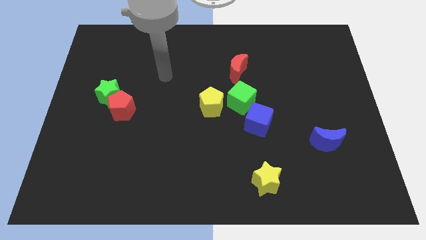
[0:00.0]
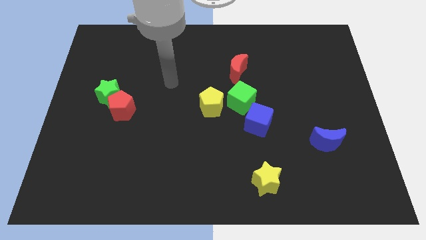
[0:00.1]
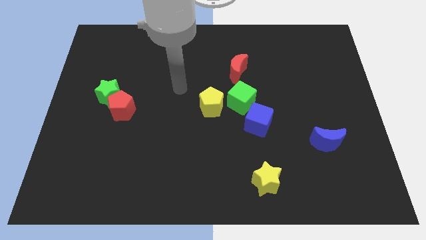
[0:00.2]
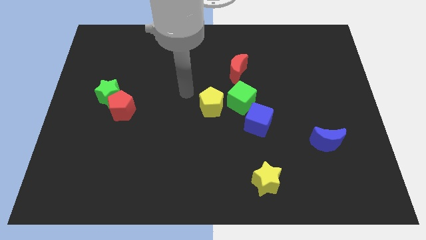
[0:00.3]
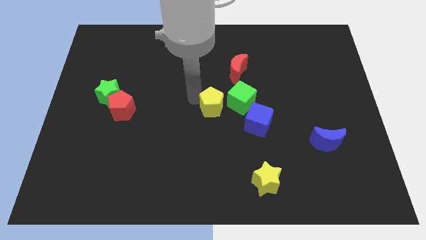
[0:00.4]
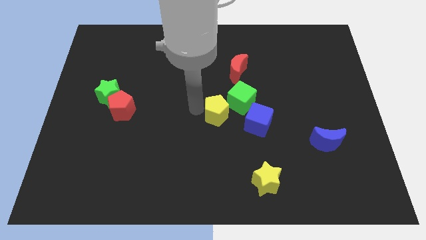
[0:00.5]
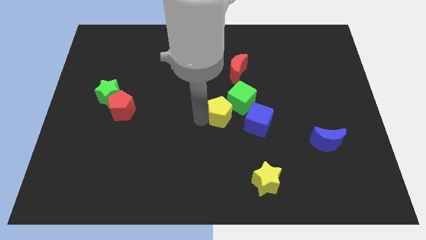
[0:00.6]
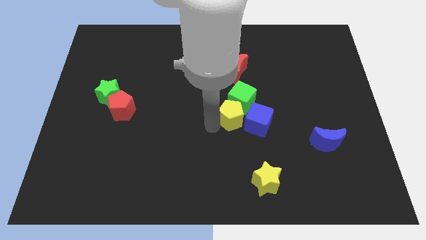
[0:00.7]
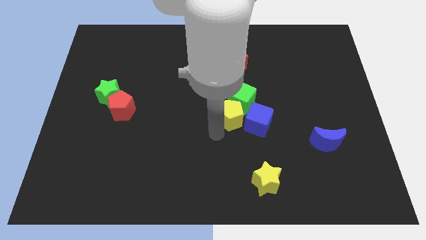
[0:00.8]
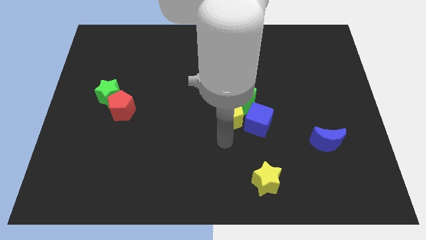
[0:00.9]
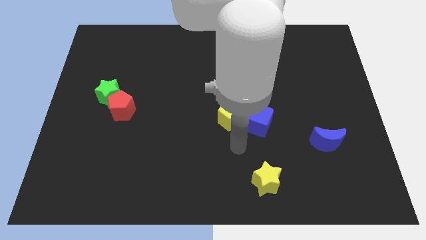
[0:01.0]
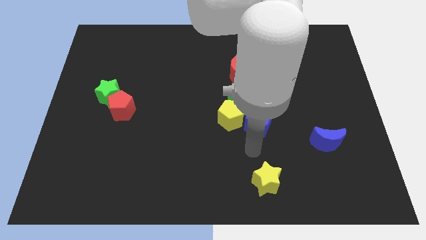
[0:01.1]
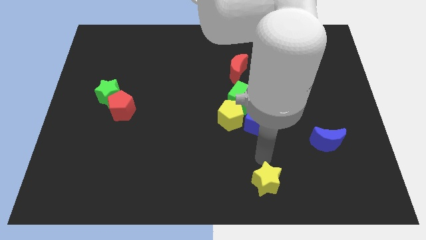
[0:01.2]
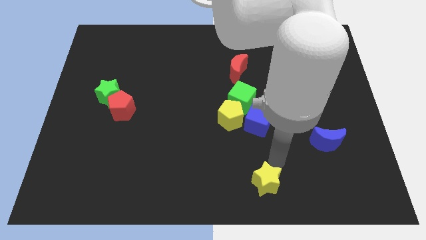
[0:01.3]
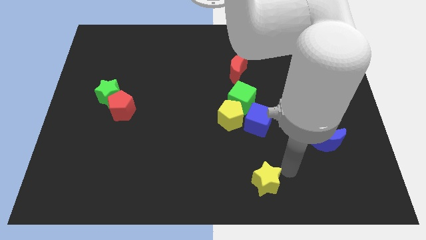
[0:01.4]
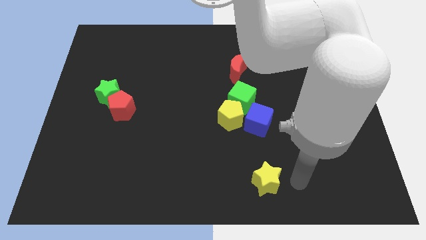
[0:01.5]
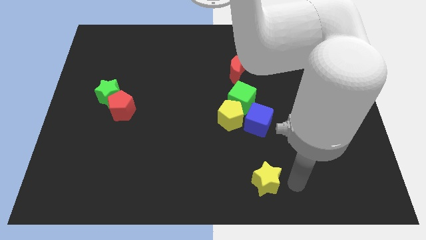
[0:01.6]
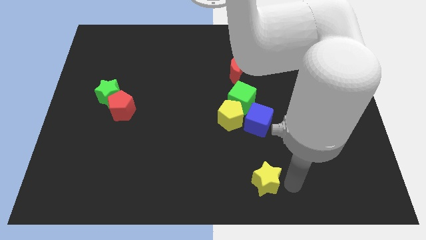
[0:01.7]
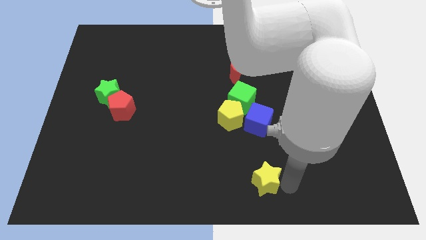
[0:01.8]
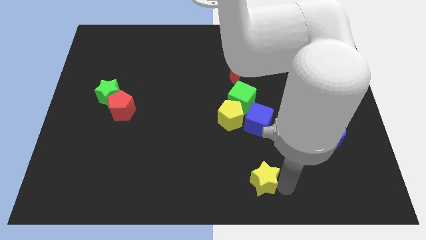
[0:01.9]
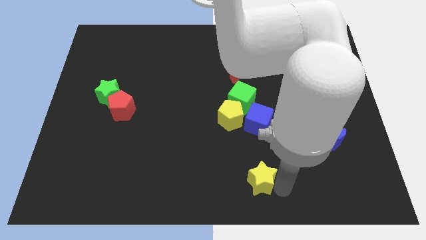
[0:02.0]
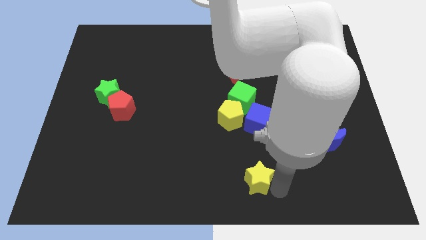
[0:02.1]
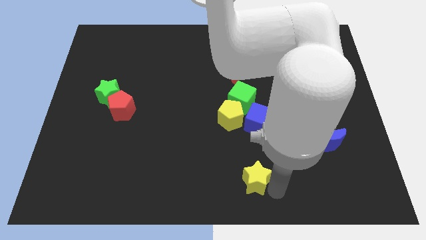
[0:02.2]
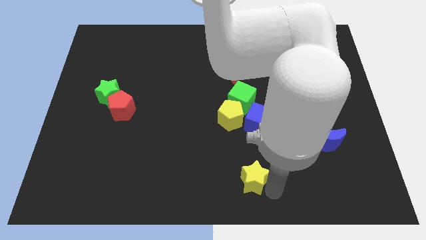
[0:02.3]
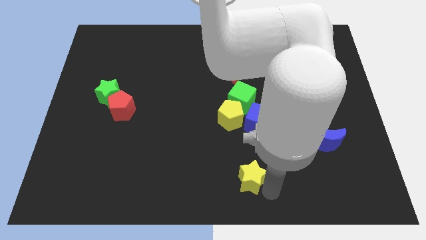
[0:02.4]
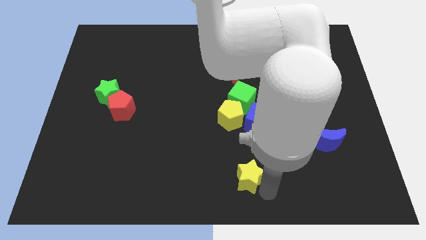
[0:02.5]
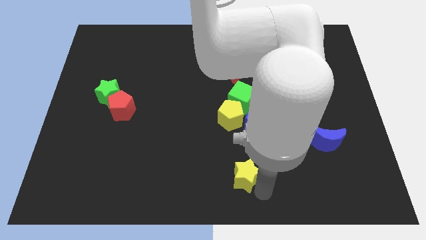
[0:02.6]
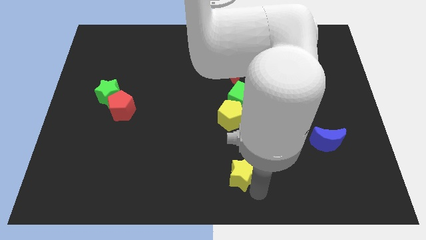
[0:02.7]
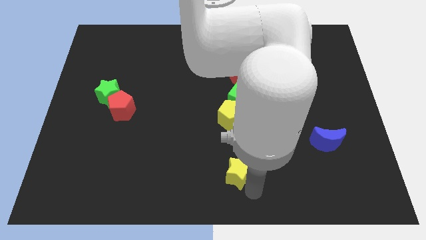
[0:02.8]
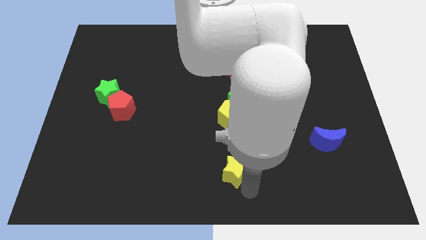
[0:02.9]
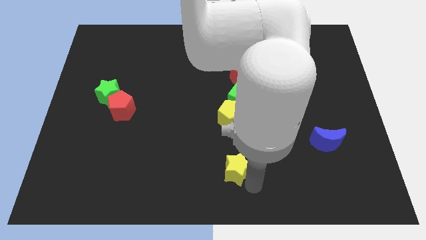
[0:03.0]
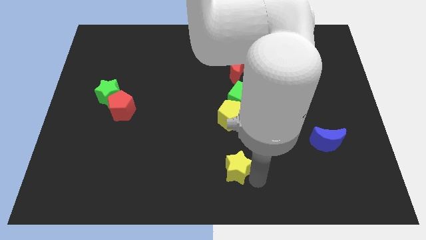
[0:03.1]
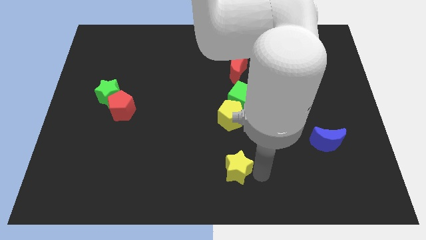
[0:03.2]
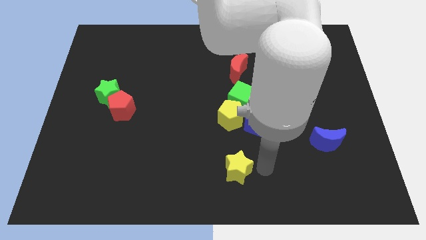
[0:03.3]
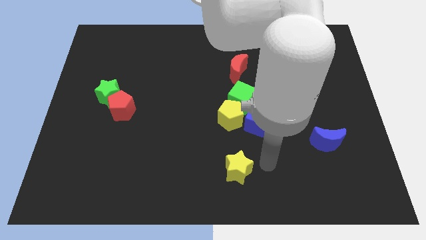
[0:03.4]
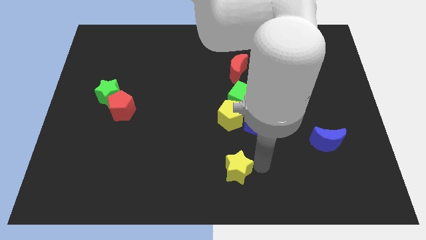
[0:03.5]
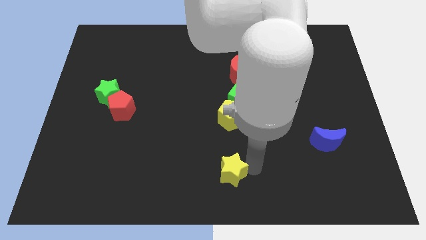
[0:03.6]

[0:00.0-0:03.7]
slide the yellow star a bit left

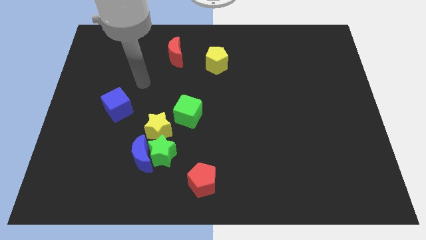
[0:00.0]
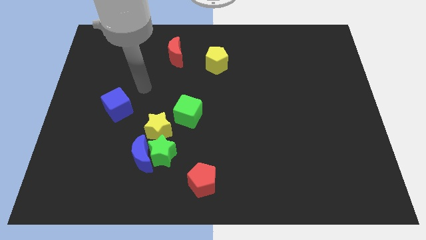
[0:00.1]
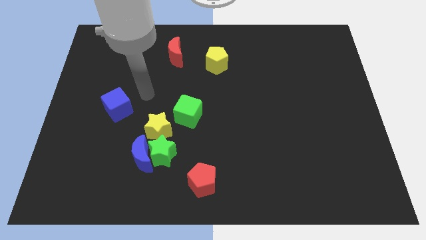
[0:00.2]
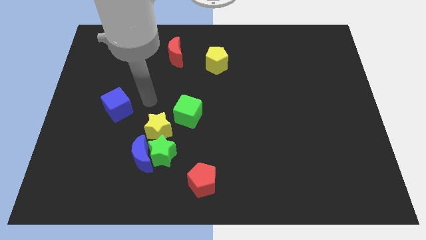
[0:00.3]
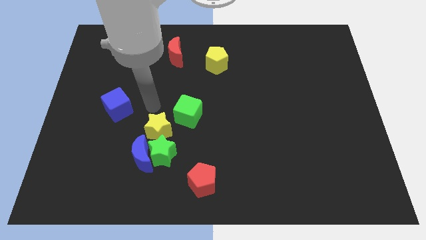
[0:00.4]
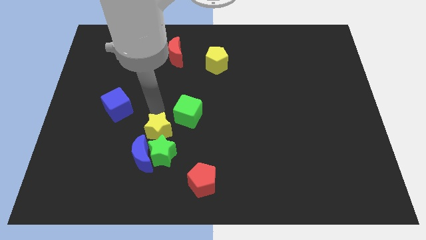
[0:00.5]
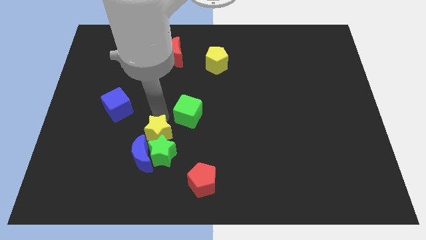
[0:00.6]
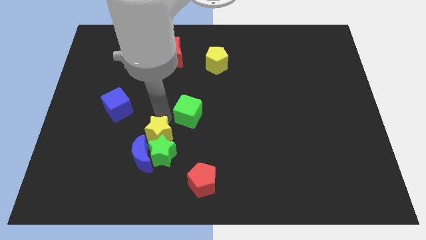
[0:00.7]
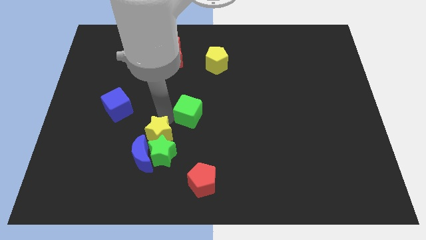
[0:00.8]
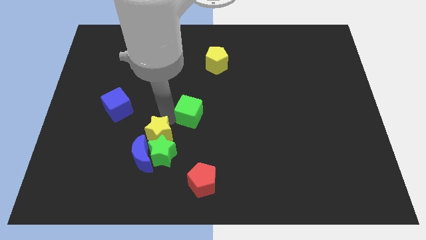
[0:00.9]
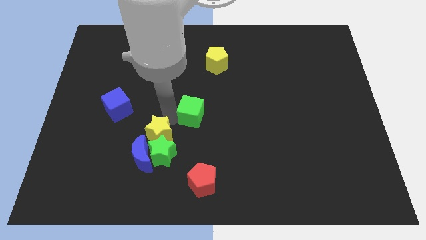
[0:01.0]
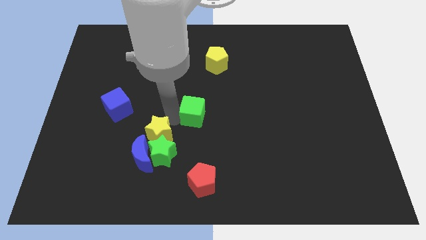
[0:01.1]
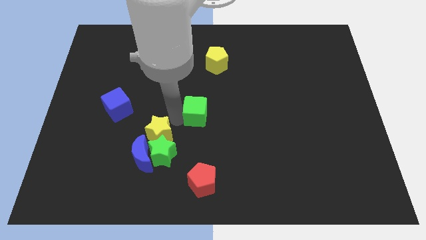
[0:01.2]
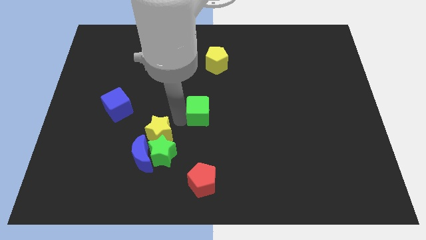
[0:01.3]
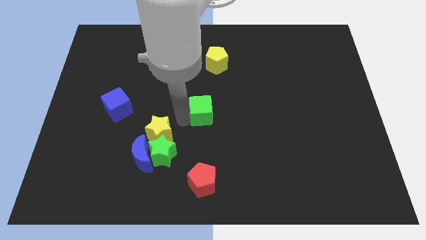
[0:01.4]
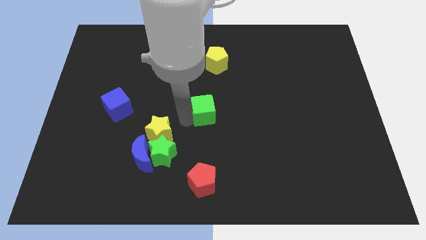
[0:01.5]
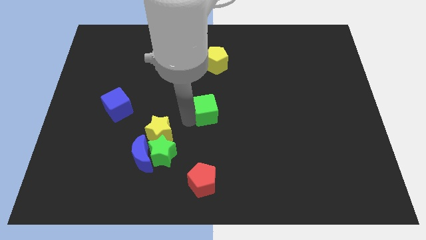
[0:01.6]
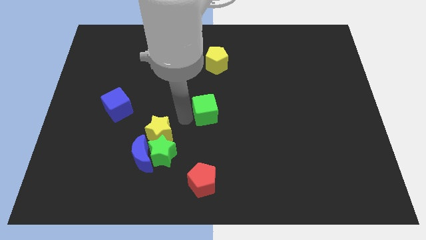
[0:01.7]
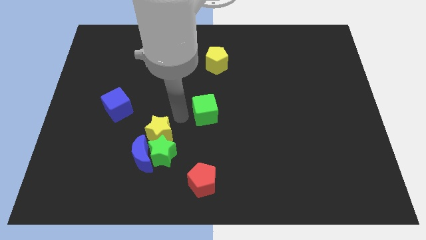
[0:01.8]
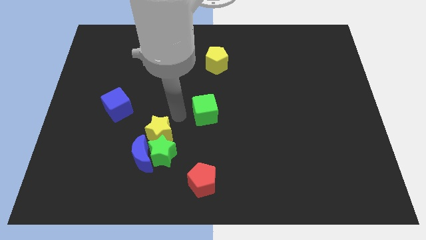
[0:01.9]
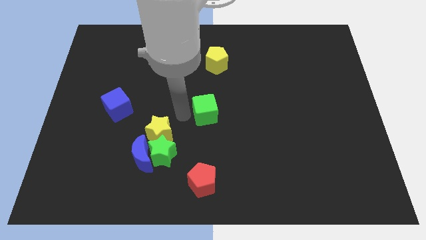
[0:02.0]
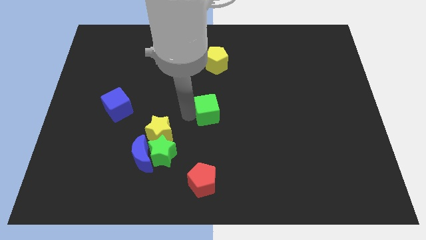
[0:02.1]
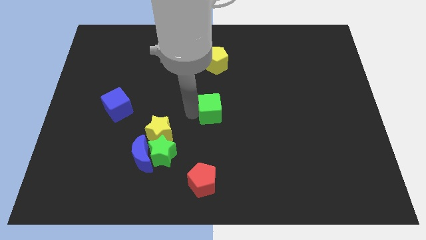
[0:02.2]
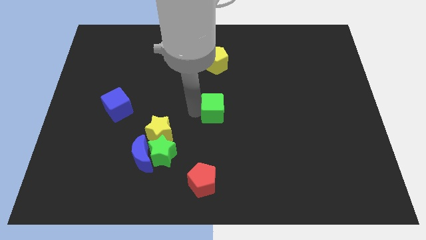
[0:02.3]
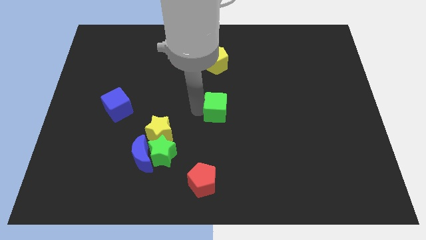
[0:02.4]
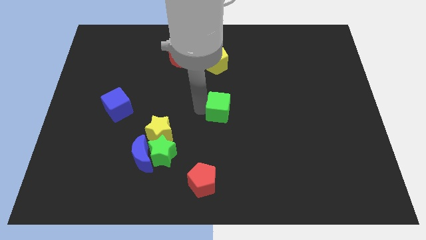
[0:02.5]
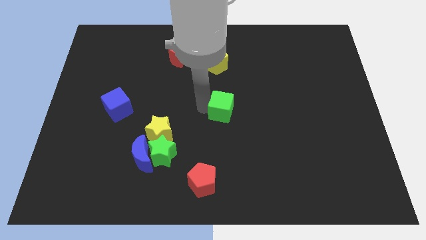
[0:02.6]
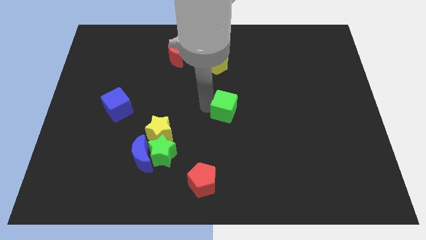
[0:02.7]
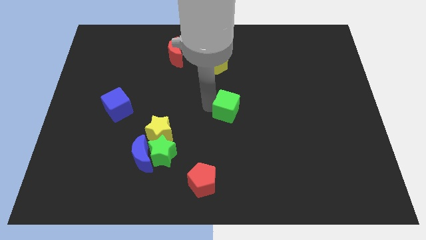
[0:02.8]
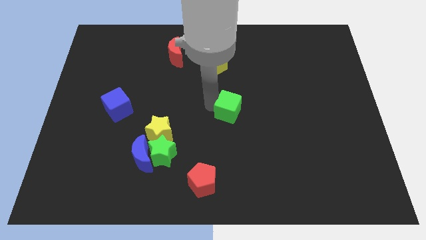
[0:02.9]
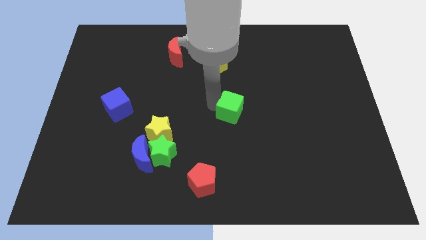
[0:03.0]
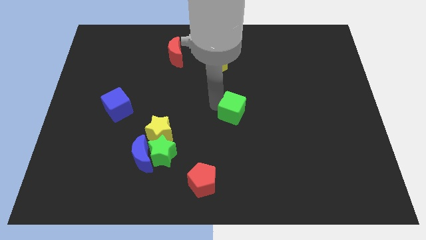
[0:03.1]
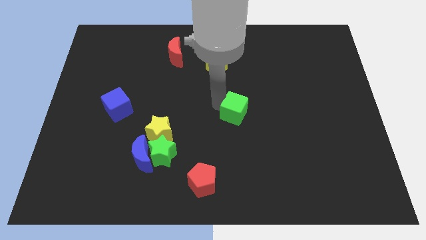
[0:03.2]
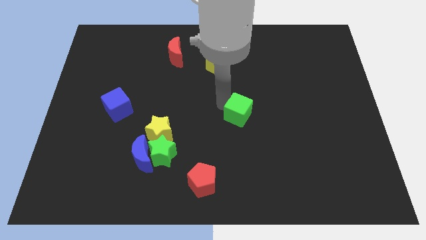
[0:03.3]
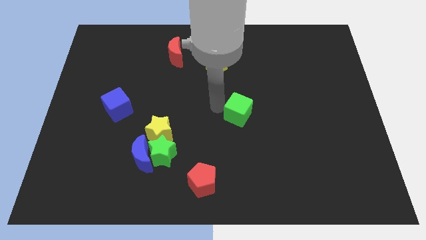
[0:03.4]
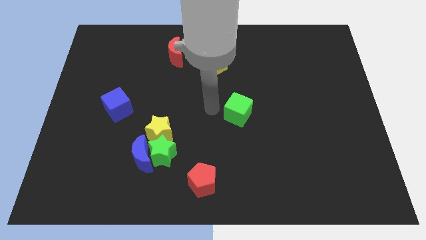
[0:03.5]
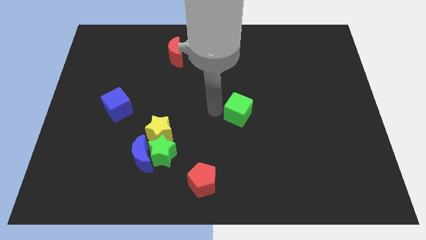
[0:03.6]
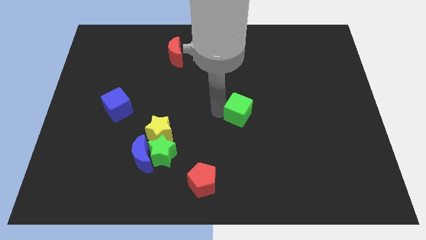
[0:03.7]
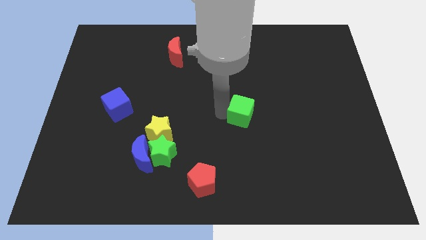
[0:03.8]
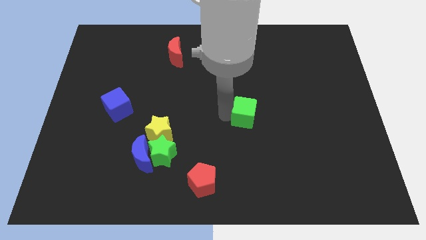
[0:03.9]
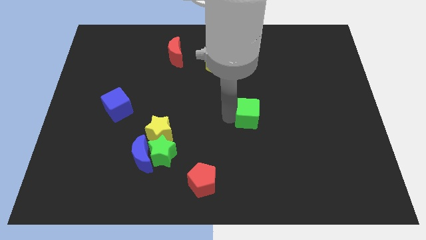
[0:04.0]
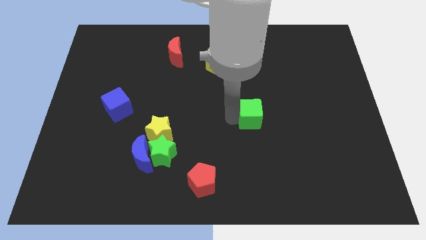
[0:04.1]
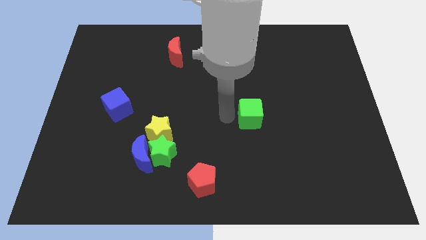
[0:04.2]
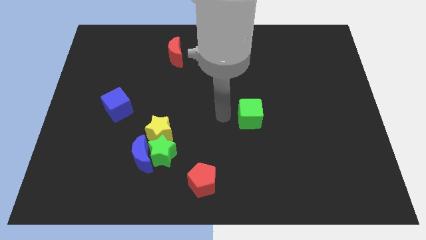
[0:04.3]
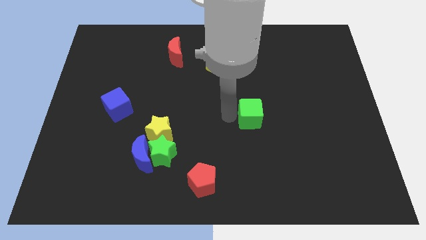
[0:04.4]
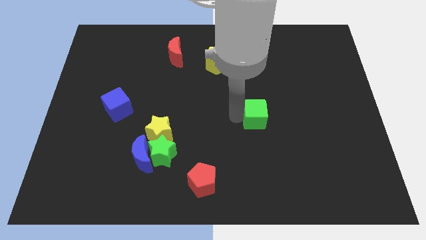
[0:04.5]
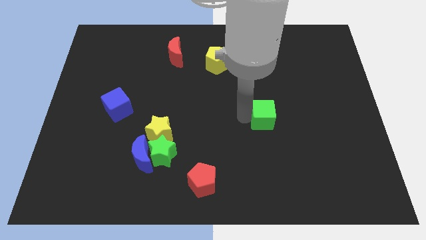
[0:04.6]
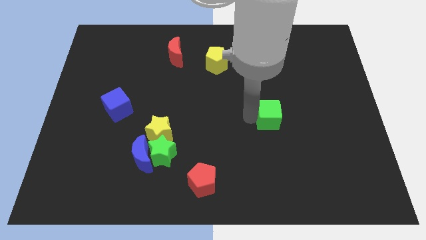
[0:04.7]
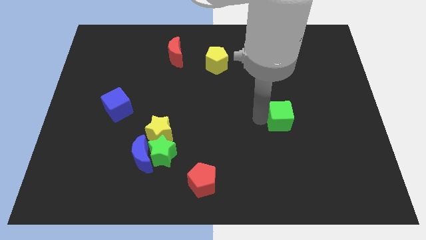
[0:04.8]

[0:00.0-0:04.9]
move the green cube right
